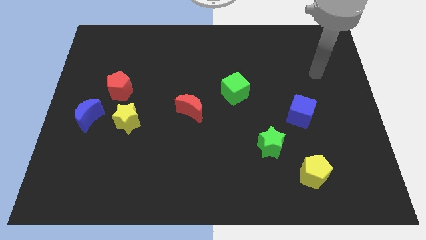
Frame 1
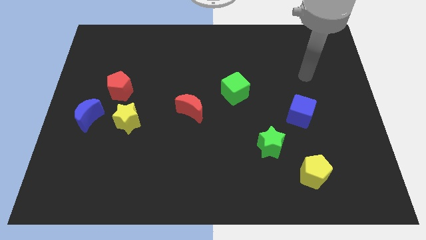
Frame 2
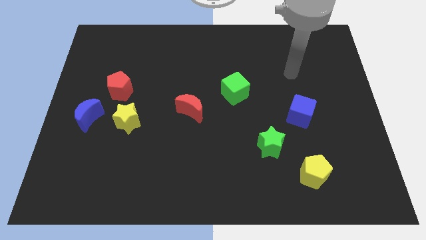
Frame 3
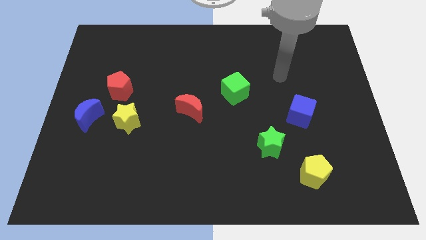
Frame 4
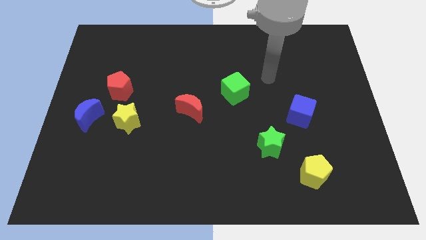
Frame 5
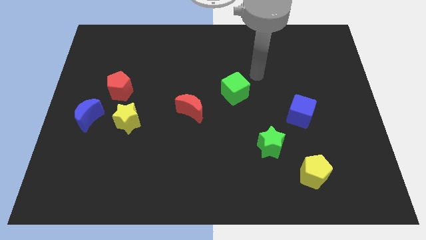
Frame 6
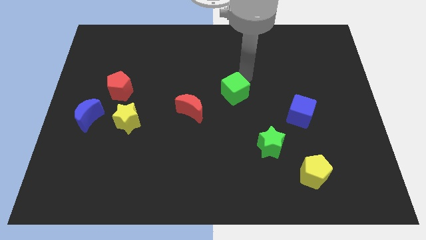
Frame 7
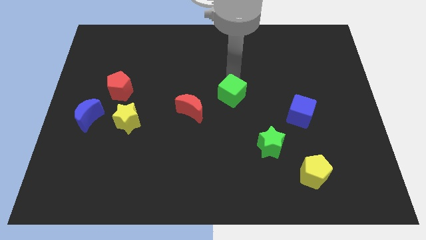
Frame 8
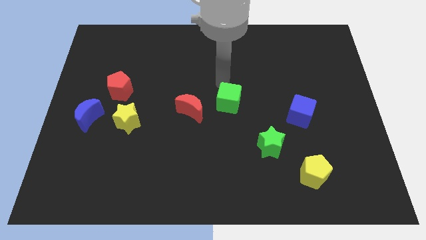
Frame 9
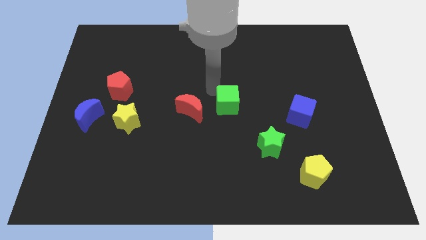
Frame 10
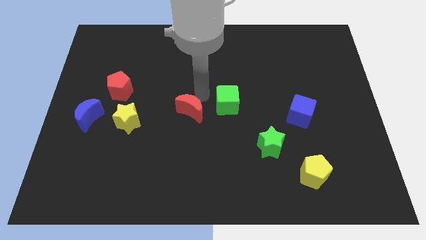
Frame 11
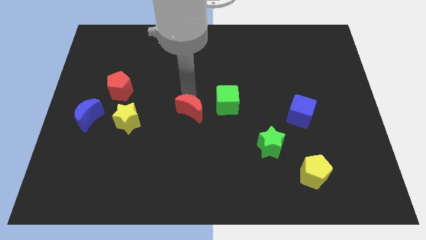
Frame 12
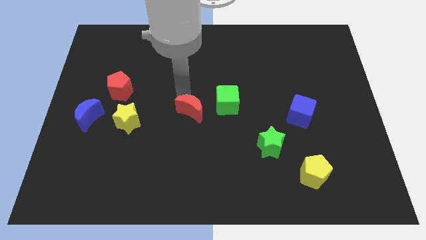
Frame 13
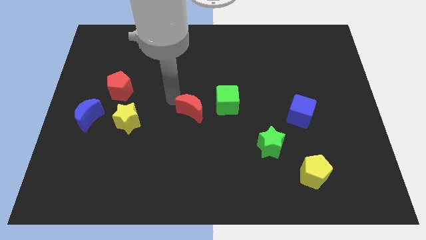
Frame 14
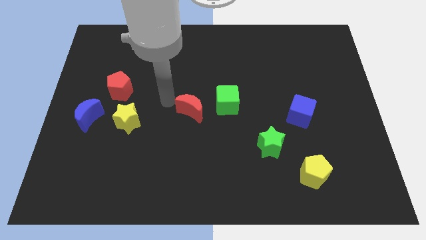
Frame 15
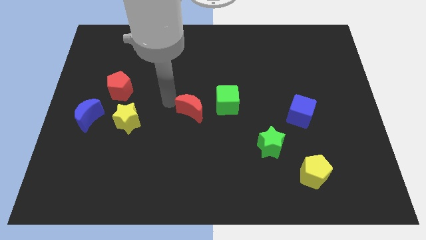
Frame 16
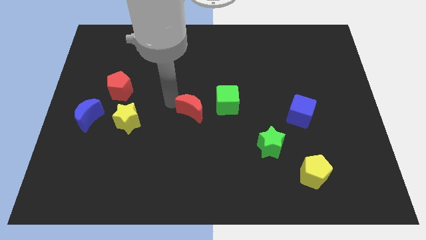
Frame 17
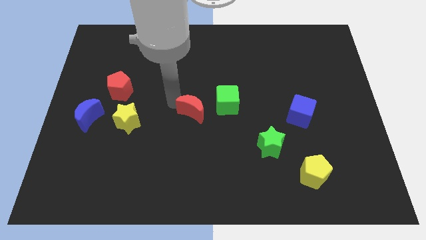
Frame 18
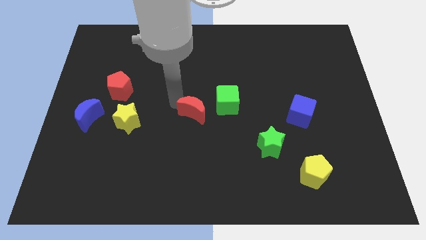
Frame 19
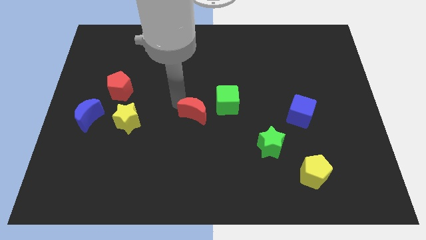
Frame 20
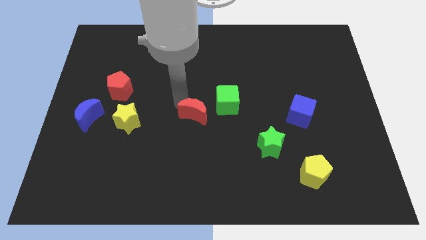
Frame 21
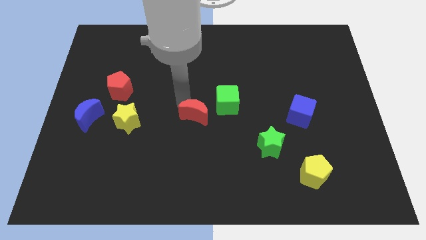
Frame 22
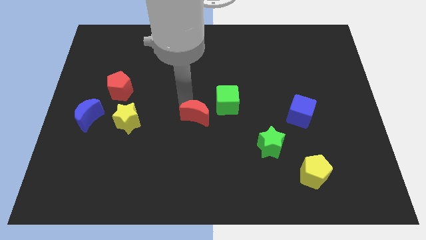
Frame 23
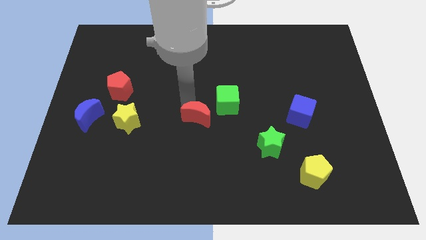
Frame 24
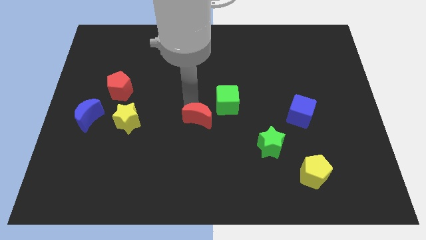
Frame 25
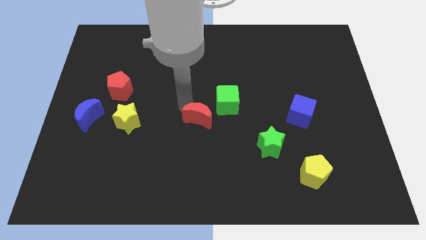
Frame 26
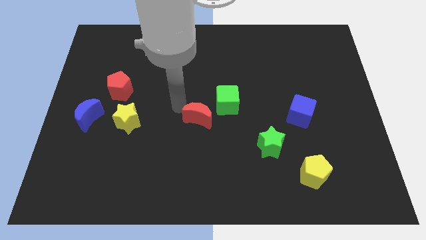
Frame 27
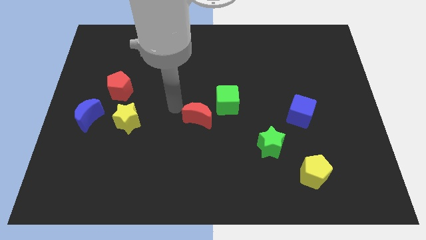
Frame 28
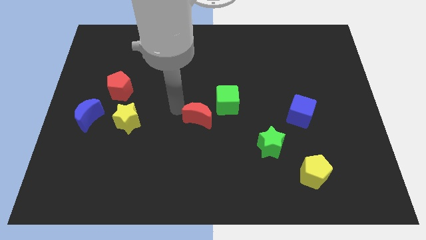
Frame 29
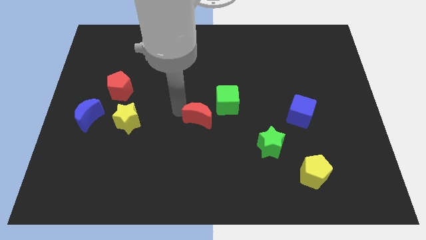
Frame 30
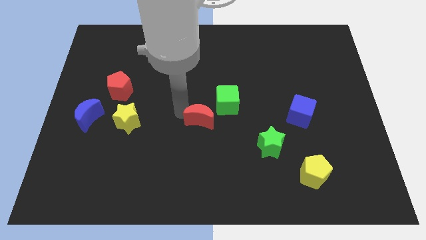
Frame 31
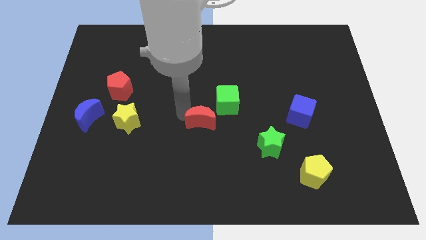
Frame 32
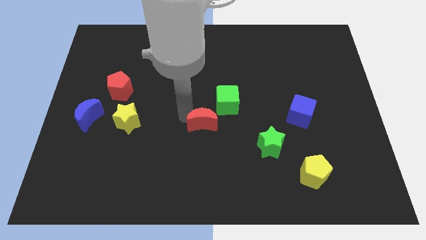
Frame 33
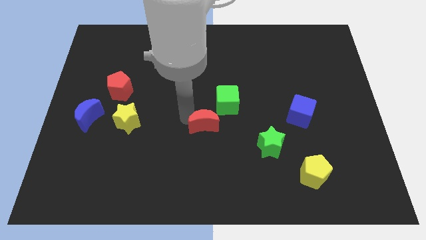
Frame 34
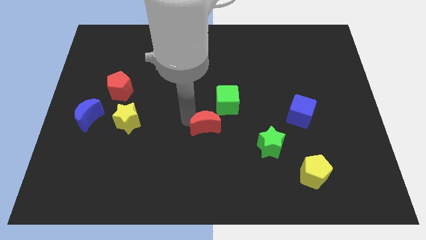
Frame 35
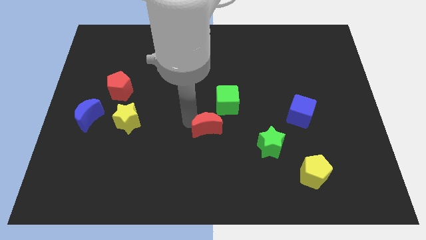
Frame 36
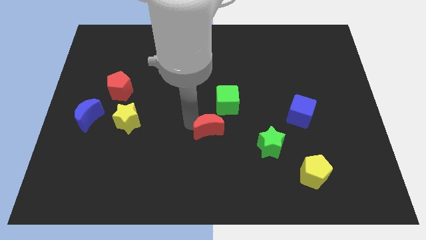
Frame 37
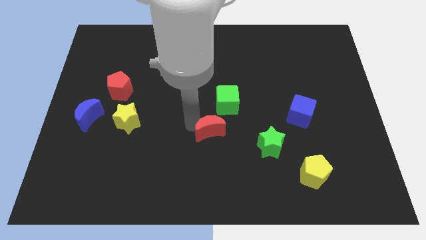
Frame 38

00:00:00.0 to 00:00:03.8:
slightly push the red moon downwards and right diagonally

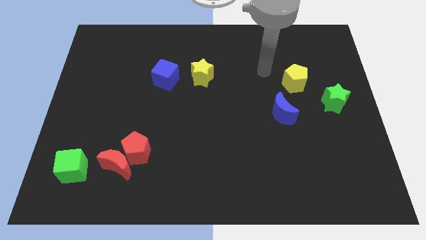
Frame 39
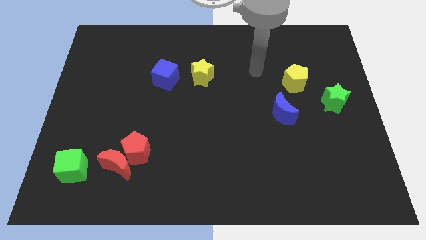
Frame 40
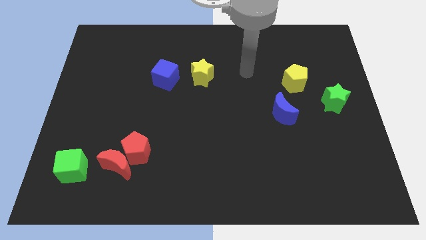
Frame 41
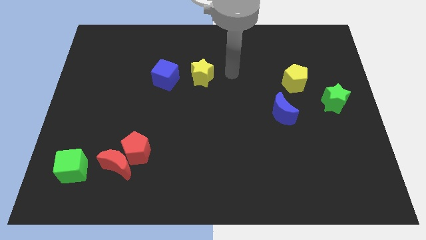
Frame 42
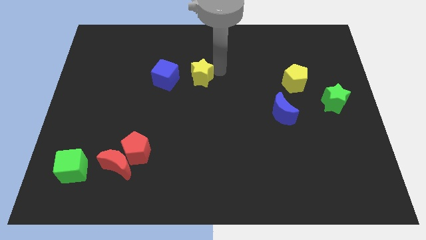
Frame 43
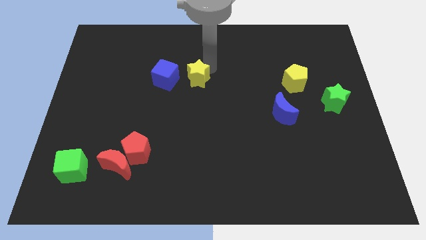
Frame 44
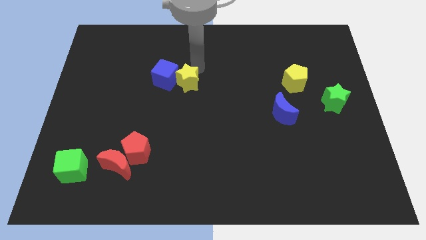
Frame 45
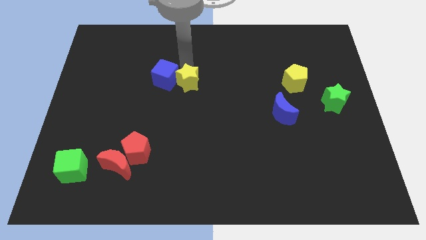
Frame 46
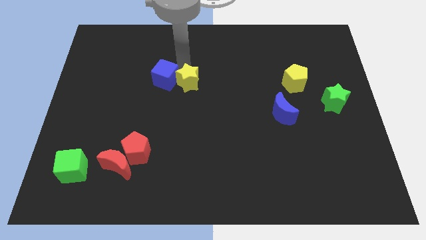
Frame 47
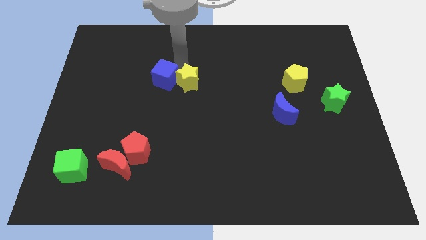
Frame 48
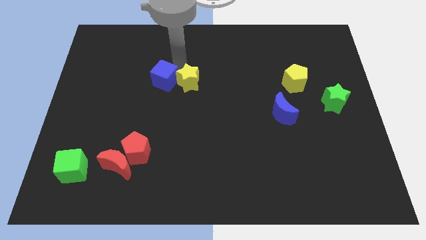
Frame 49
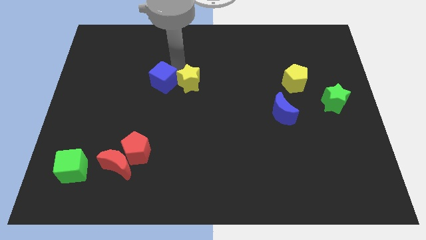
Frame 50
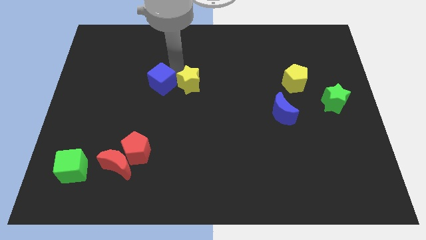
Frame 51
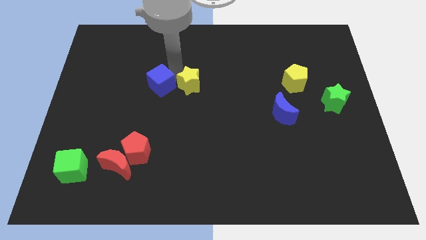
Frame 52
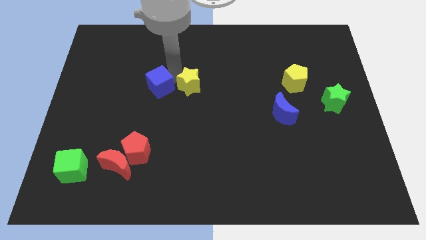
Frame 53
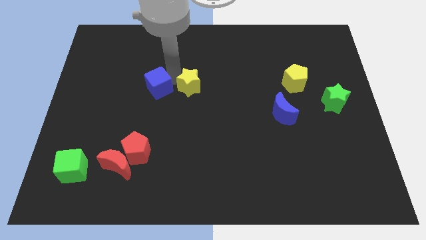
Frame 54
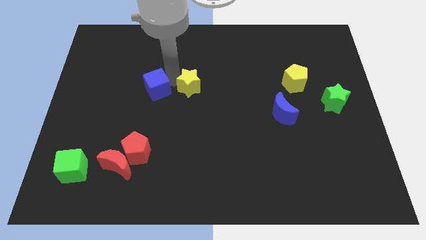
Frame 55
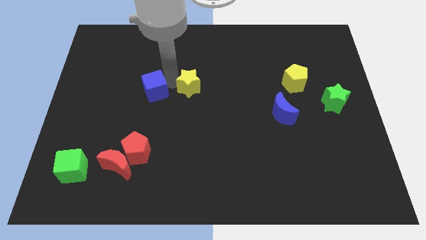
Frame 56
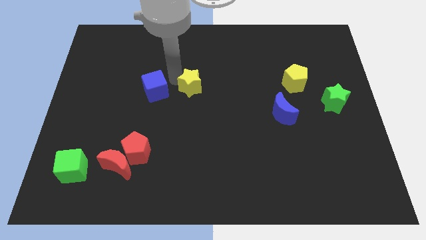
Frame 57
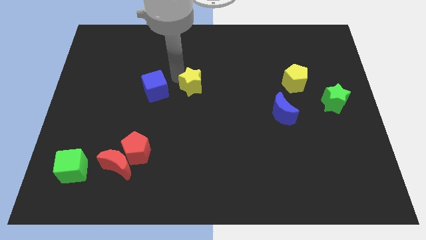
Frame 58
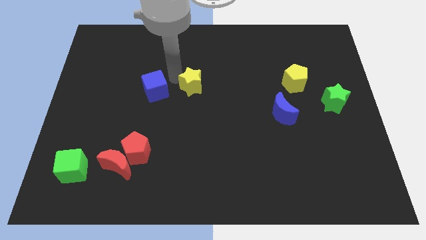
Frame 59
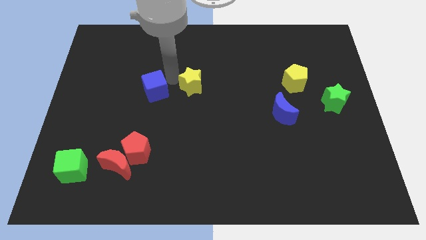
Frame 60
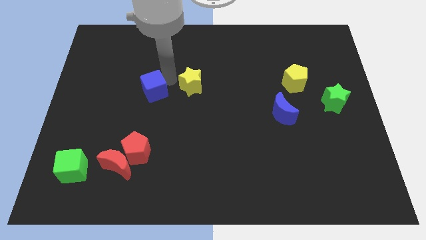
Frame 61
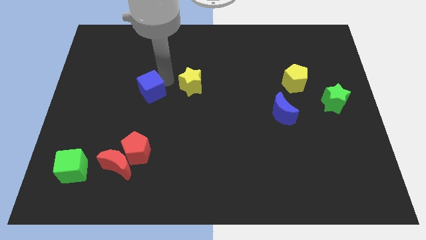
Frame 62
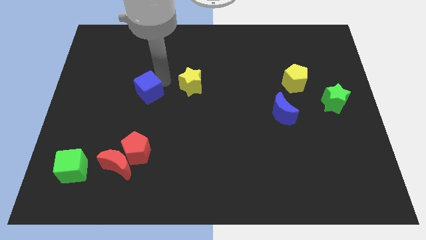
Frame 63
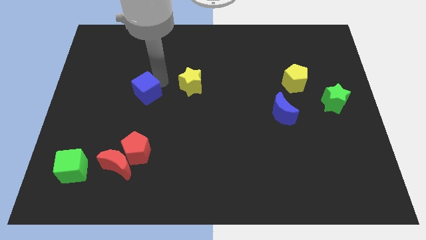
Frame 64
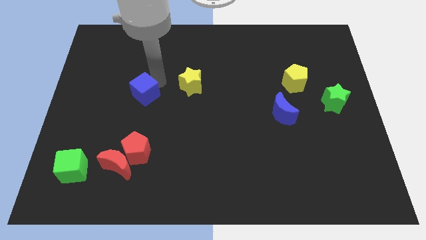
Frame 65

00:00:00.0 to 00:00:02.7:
slide the blue cube down and then left slightly

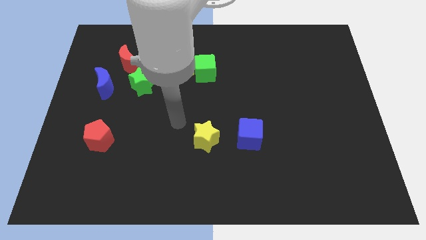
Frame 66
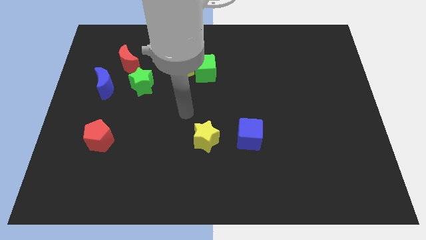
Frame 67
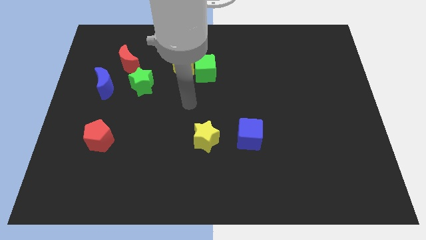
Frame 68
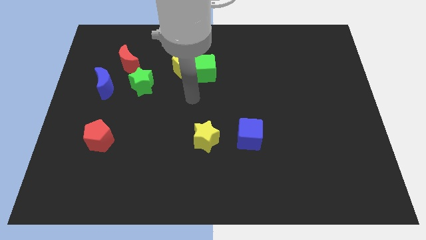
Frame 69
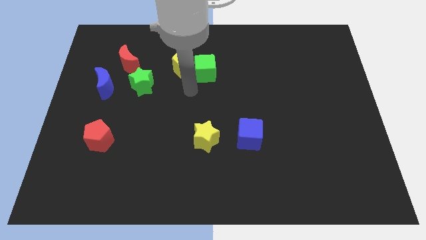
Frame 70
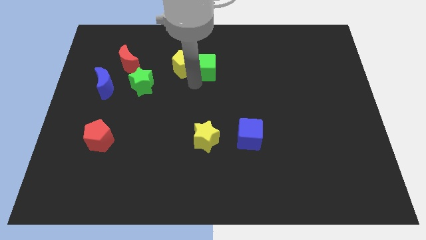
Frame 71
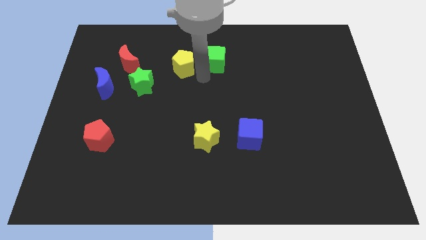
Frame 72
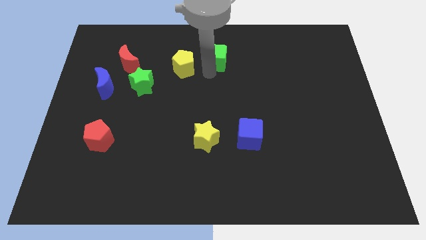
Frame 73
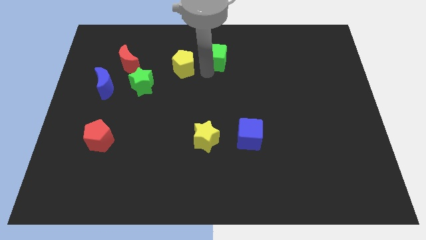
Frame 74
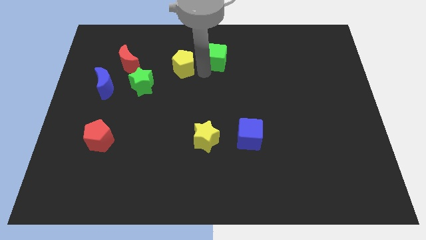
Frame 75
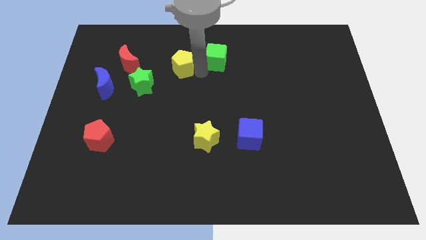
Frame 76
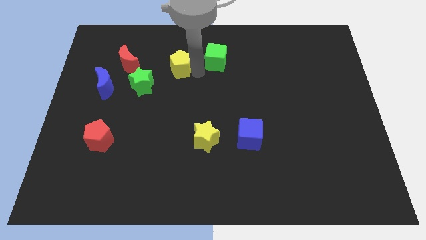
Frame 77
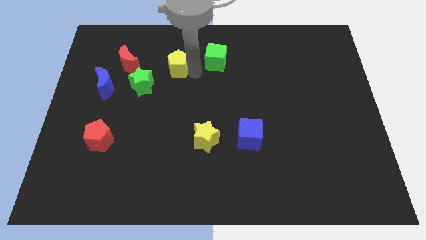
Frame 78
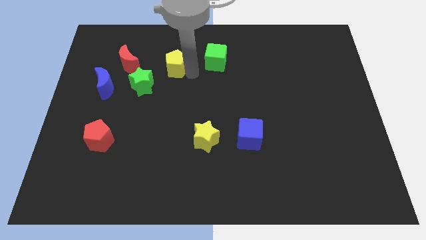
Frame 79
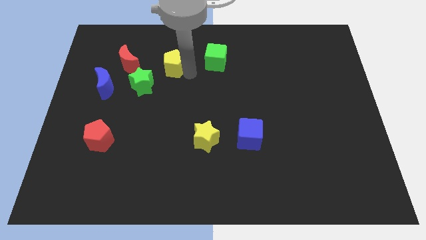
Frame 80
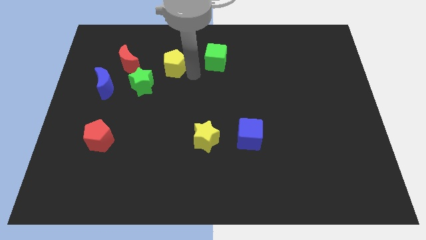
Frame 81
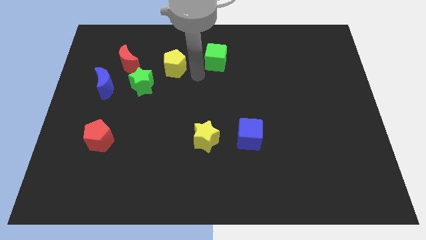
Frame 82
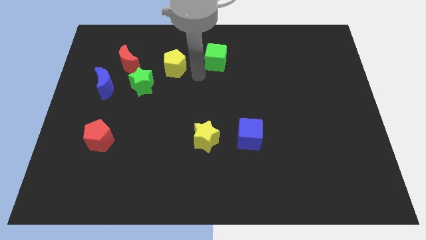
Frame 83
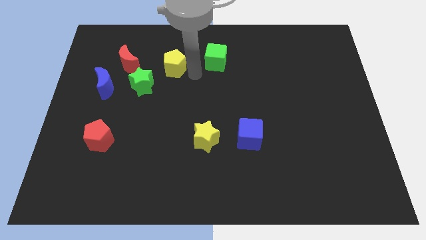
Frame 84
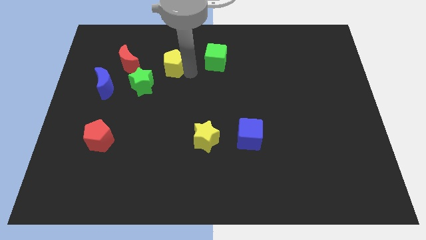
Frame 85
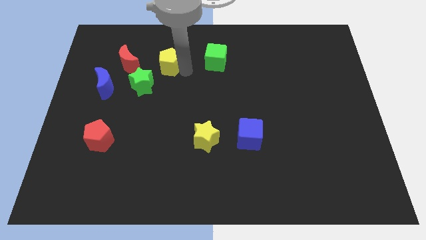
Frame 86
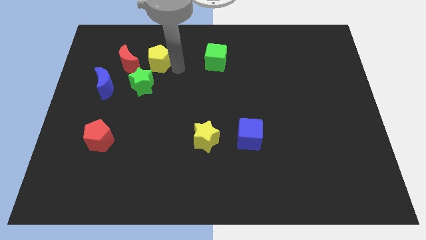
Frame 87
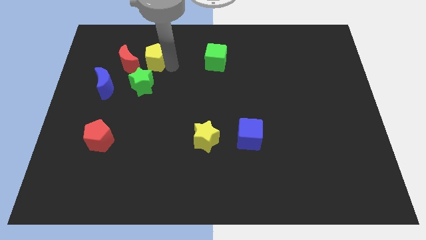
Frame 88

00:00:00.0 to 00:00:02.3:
slide the yellow pentagon somewhat left
